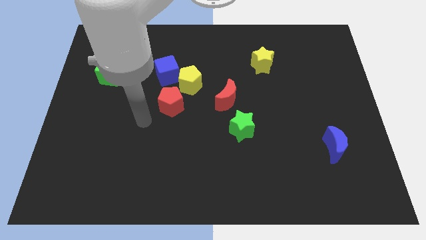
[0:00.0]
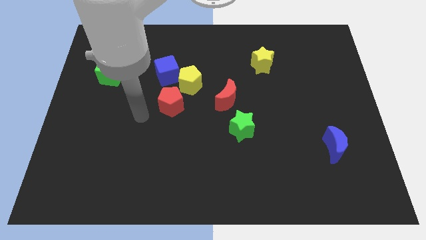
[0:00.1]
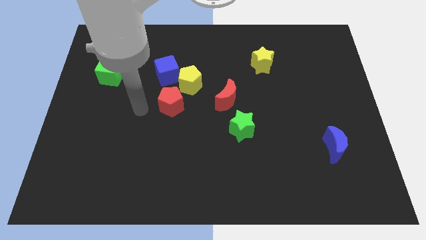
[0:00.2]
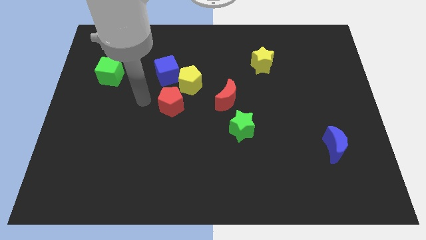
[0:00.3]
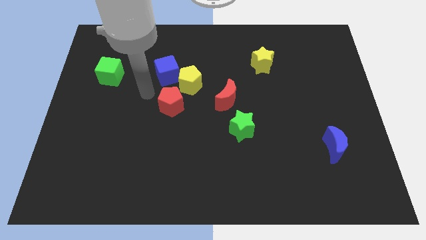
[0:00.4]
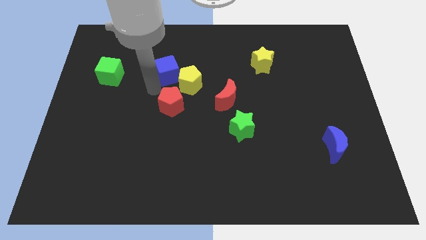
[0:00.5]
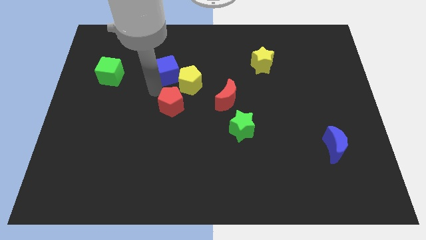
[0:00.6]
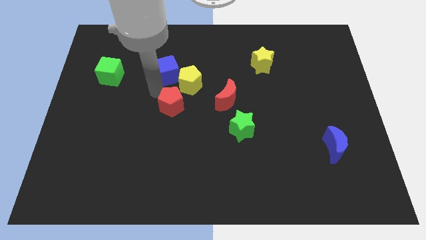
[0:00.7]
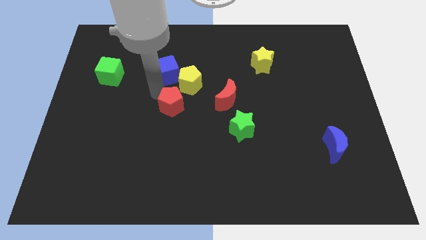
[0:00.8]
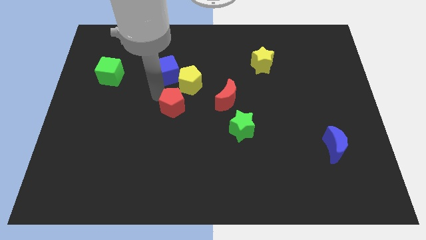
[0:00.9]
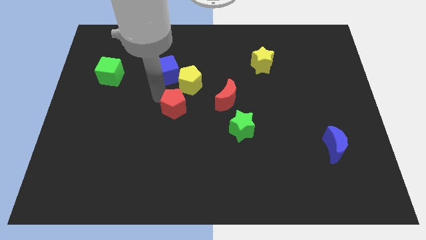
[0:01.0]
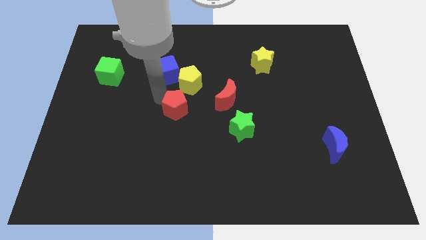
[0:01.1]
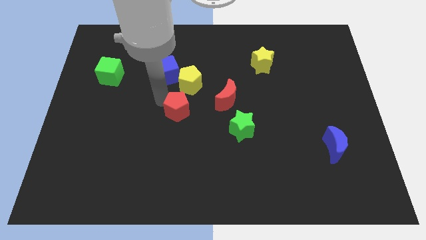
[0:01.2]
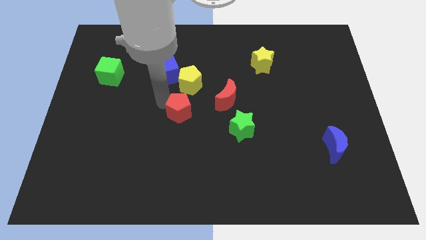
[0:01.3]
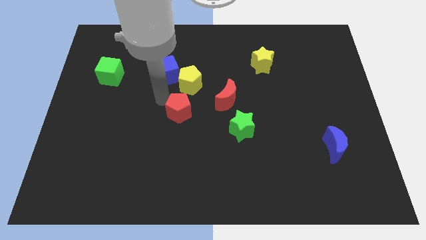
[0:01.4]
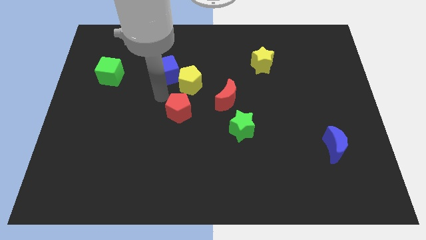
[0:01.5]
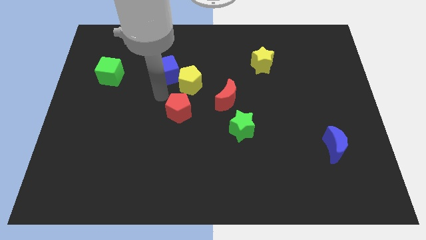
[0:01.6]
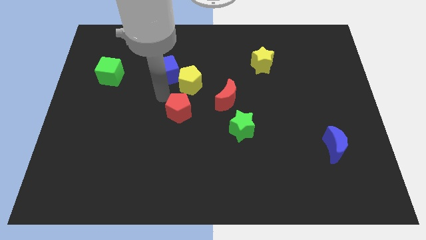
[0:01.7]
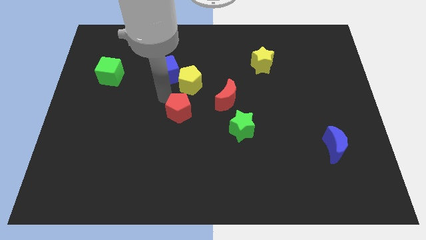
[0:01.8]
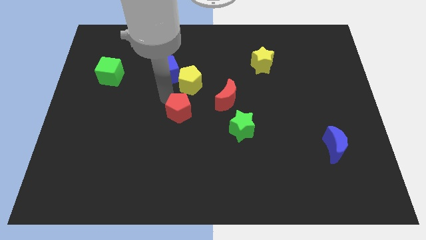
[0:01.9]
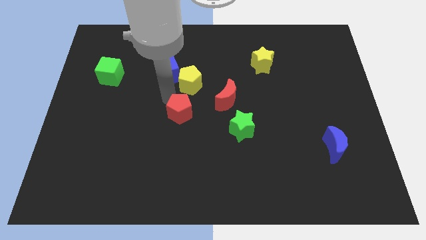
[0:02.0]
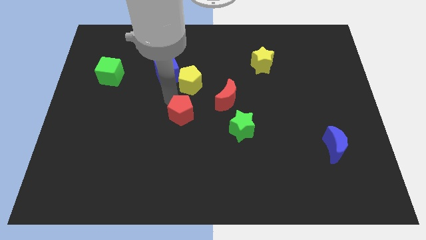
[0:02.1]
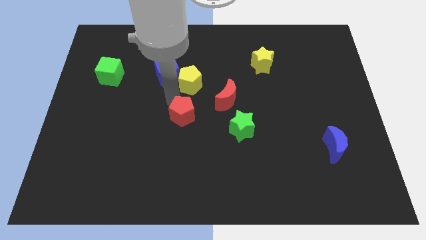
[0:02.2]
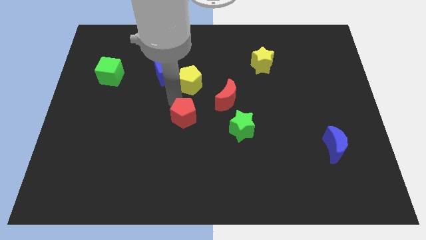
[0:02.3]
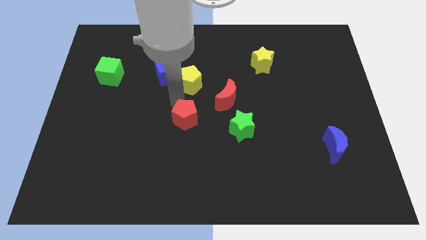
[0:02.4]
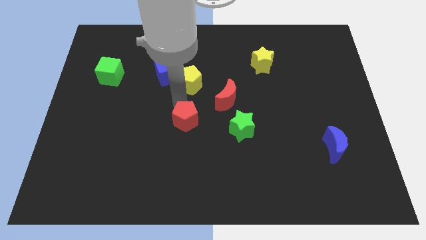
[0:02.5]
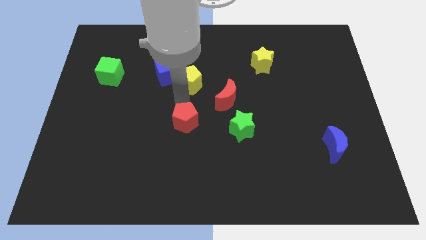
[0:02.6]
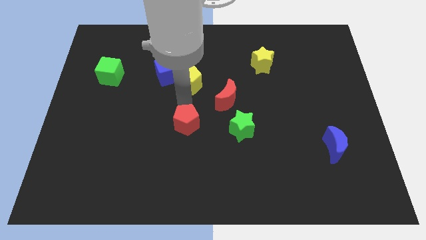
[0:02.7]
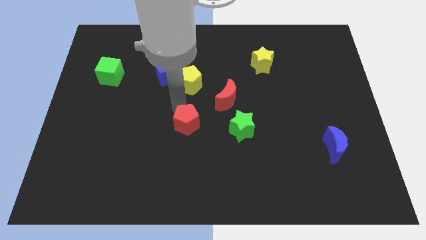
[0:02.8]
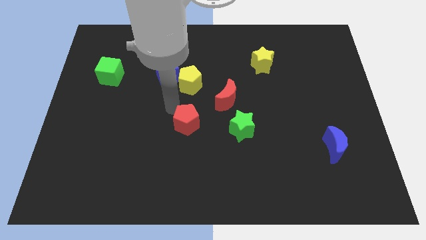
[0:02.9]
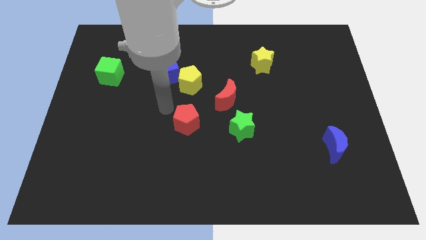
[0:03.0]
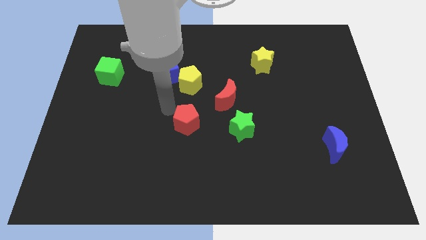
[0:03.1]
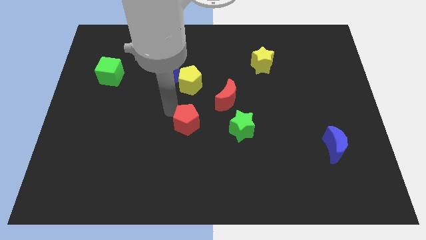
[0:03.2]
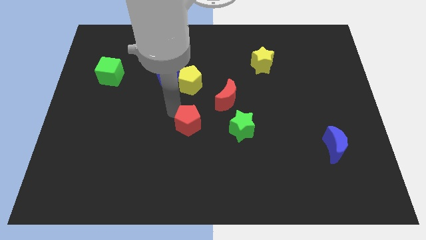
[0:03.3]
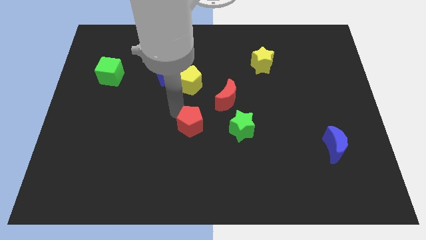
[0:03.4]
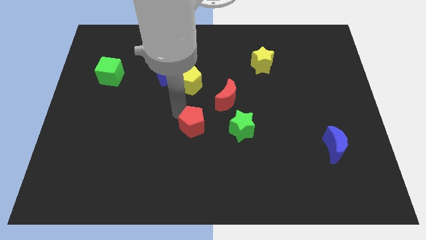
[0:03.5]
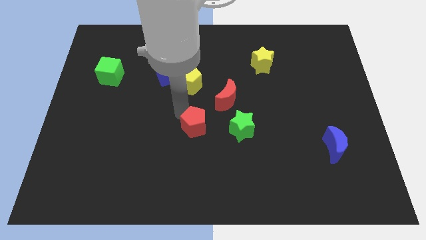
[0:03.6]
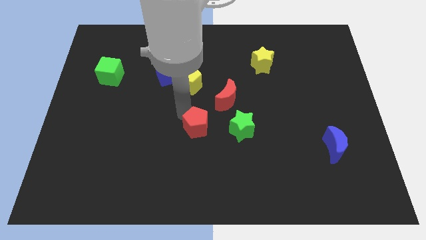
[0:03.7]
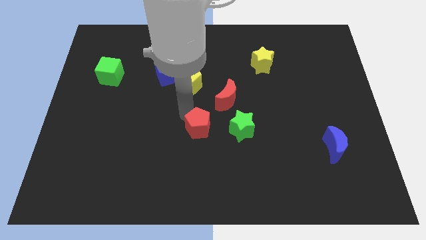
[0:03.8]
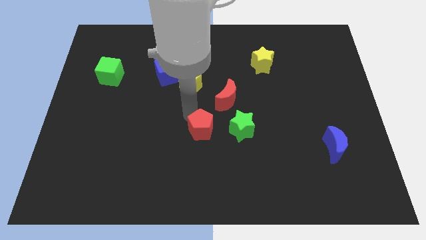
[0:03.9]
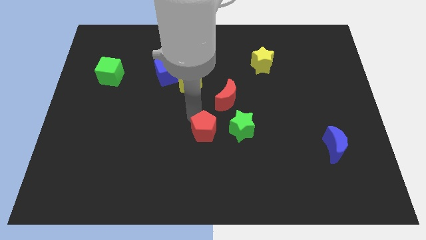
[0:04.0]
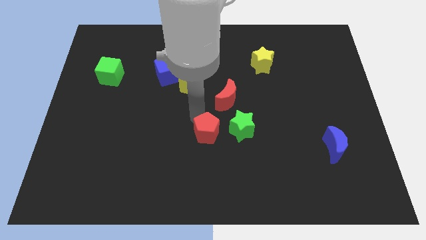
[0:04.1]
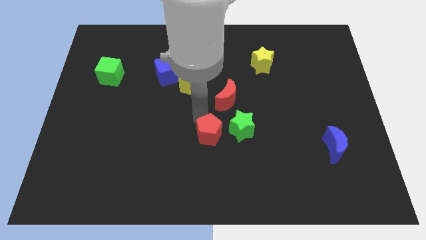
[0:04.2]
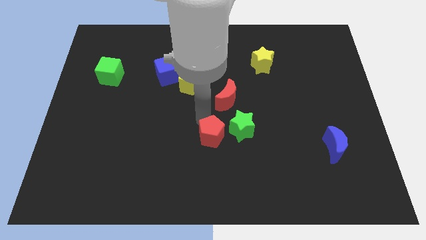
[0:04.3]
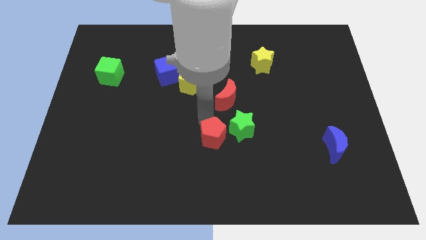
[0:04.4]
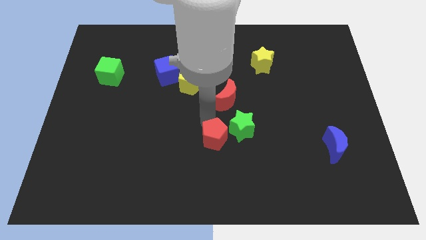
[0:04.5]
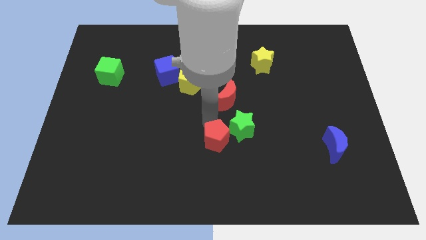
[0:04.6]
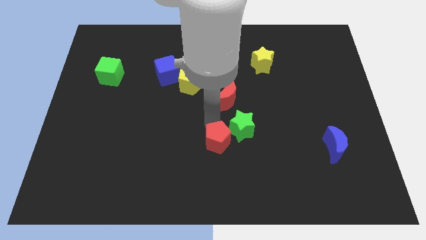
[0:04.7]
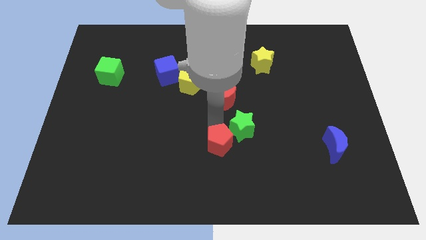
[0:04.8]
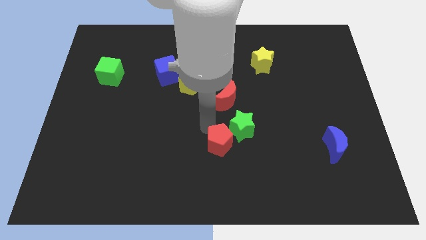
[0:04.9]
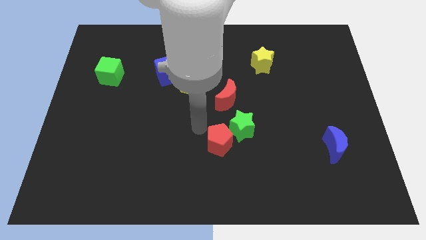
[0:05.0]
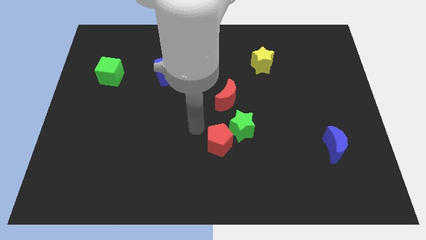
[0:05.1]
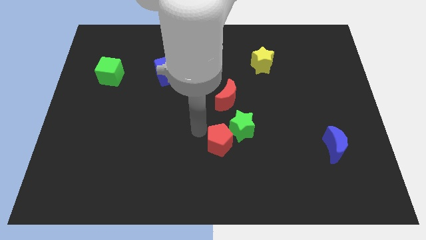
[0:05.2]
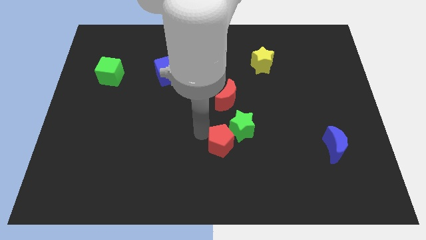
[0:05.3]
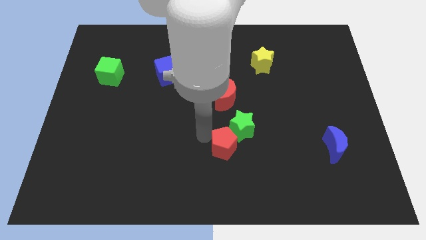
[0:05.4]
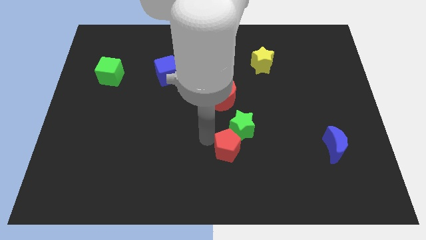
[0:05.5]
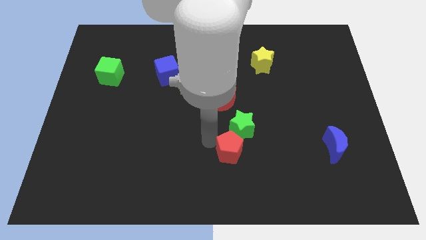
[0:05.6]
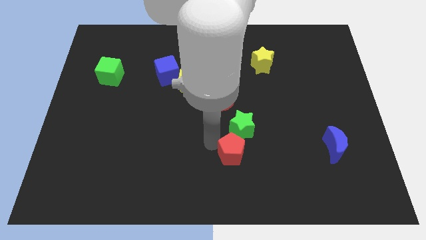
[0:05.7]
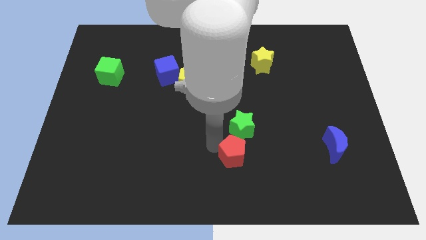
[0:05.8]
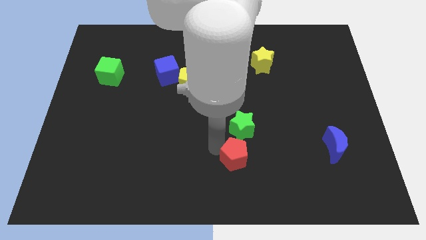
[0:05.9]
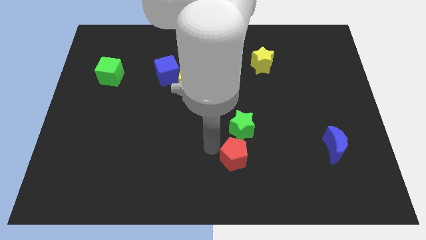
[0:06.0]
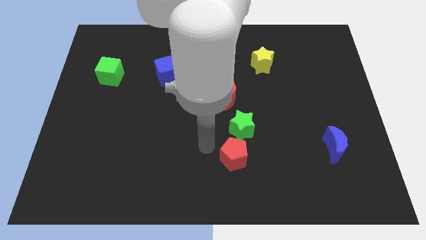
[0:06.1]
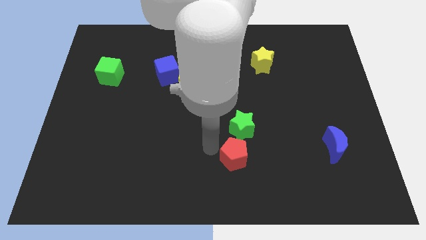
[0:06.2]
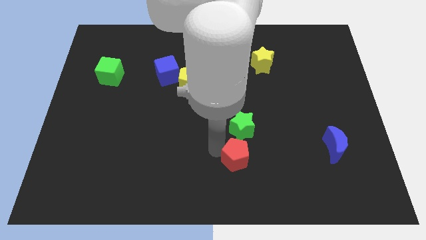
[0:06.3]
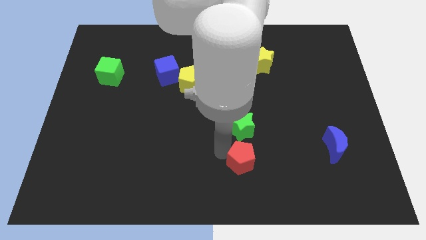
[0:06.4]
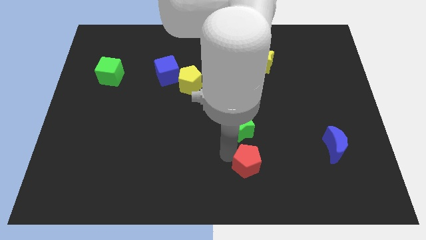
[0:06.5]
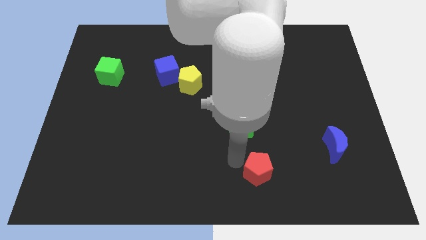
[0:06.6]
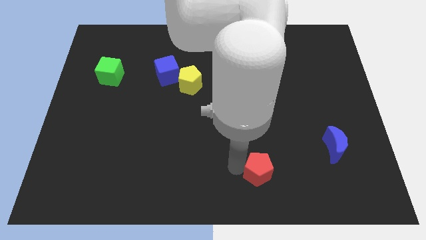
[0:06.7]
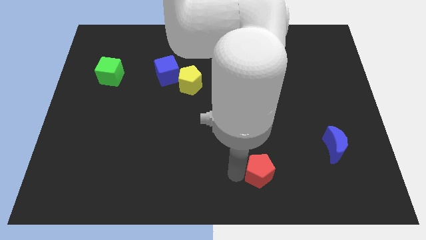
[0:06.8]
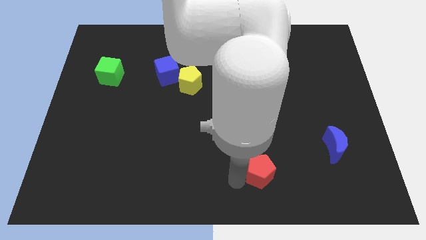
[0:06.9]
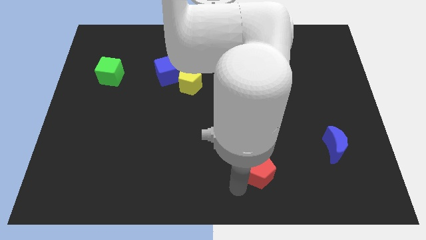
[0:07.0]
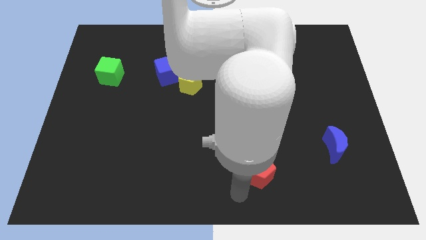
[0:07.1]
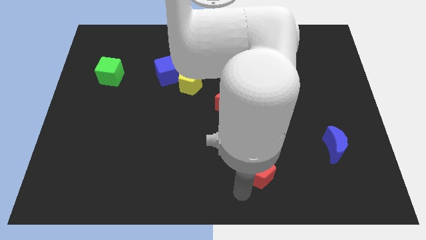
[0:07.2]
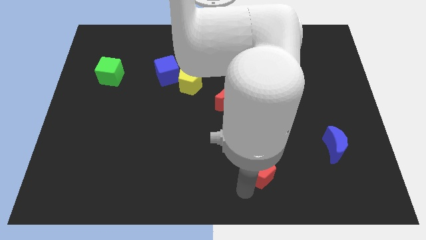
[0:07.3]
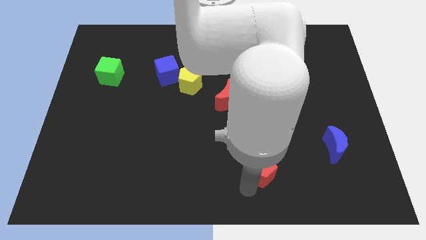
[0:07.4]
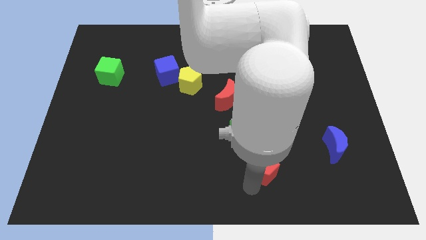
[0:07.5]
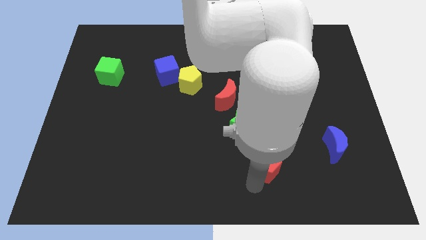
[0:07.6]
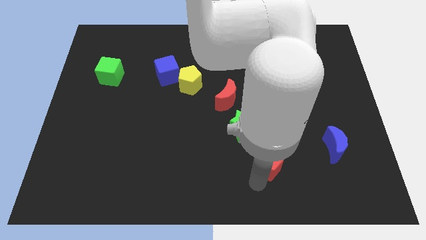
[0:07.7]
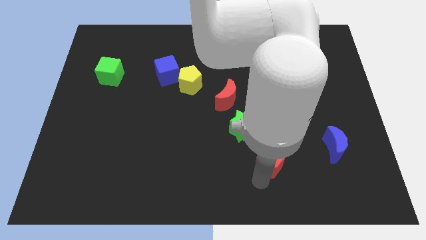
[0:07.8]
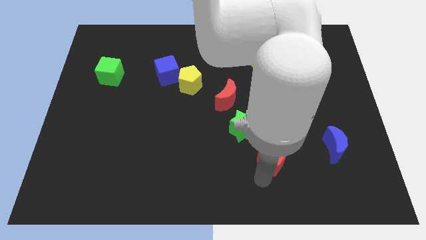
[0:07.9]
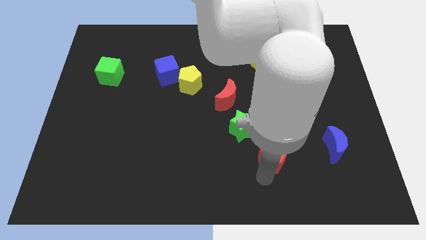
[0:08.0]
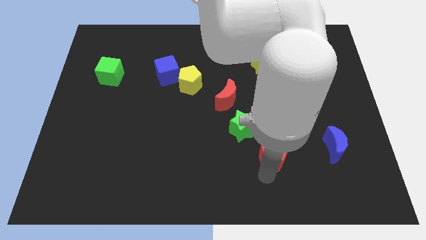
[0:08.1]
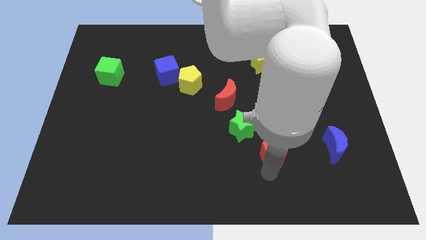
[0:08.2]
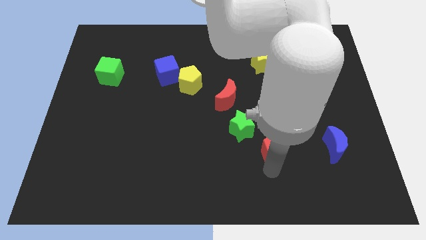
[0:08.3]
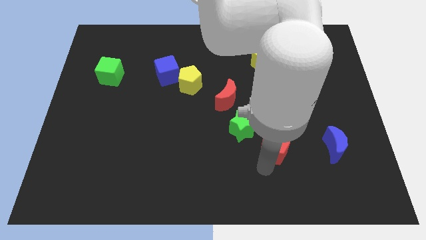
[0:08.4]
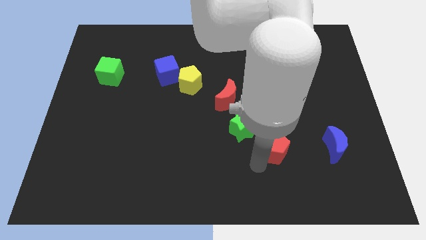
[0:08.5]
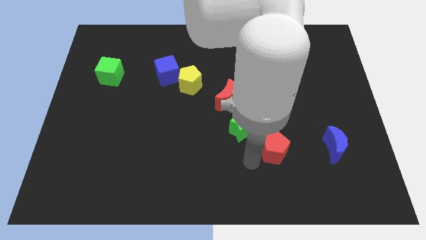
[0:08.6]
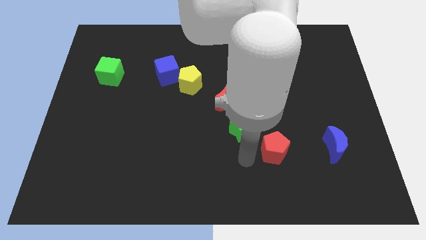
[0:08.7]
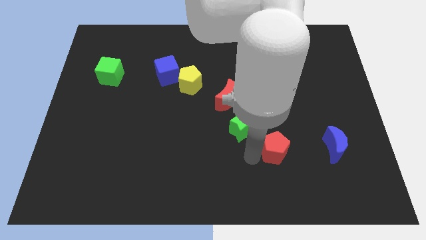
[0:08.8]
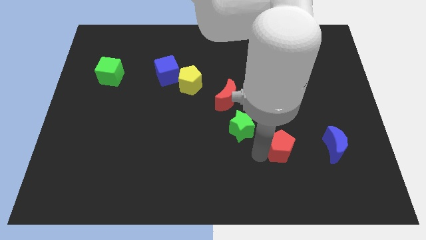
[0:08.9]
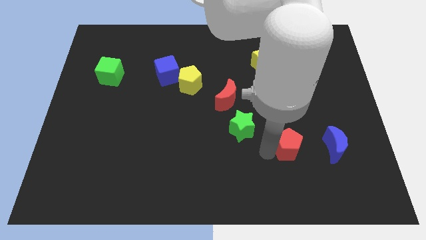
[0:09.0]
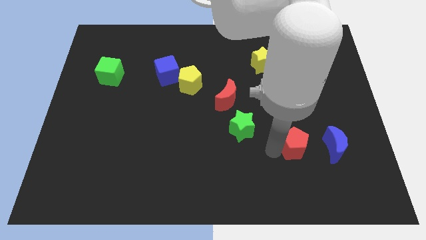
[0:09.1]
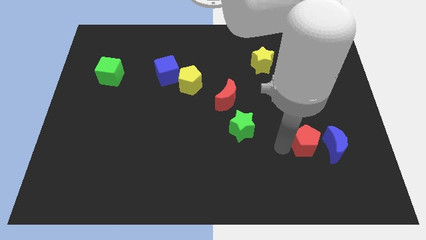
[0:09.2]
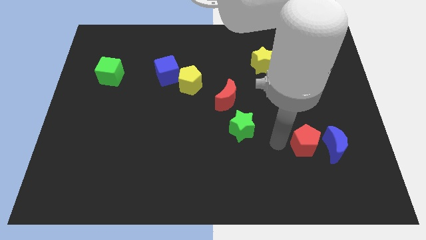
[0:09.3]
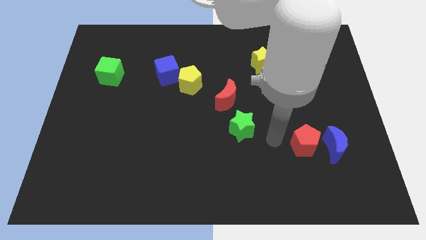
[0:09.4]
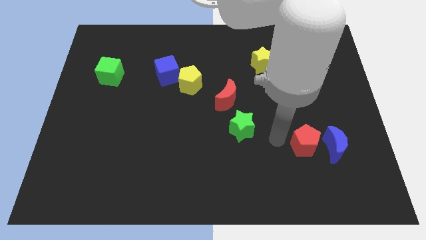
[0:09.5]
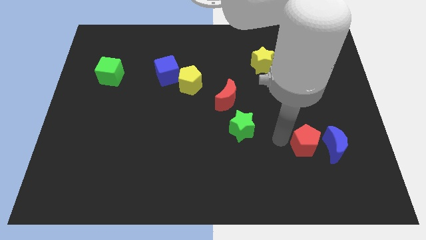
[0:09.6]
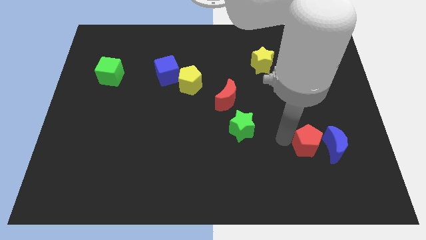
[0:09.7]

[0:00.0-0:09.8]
put the red pentagon close to the blue moon
